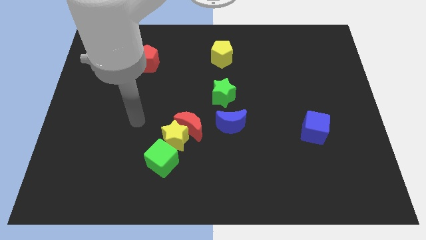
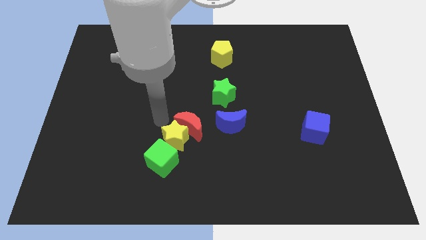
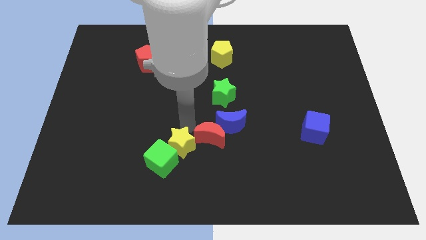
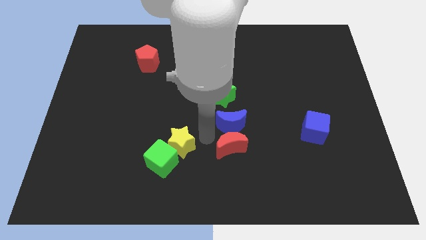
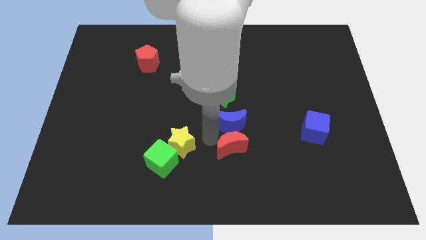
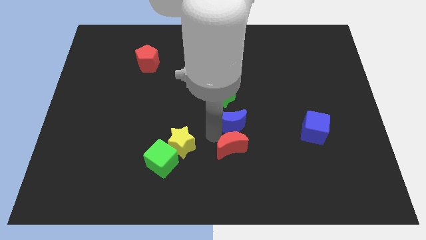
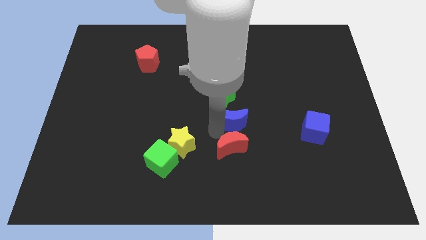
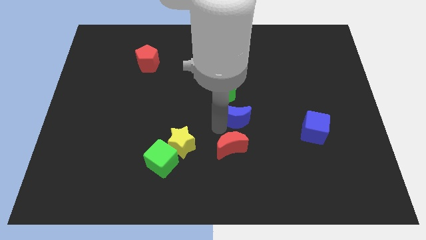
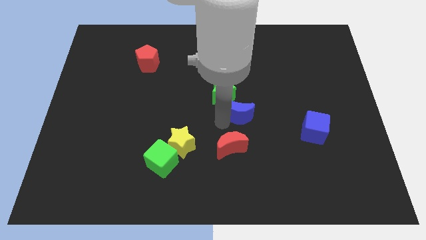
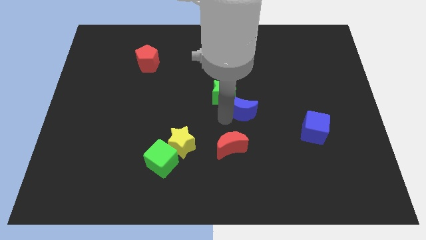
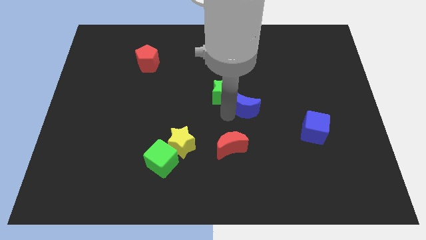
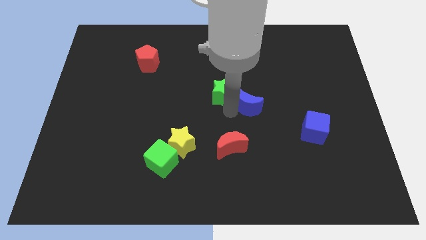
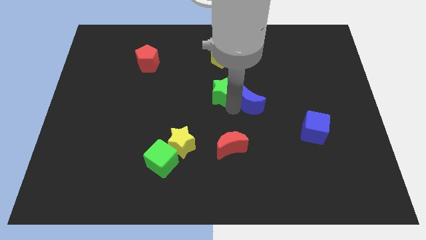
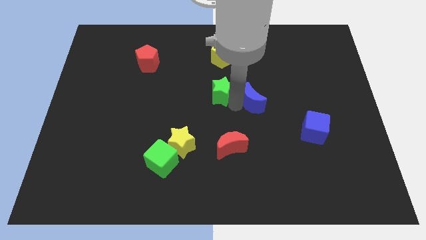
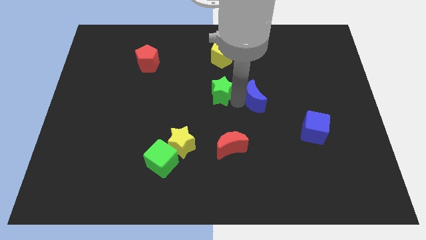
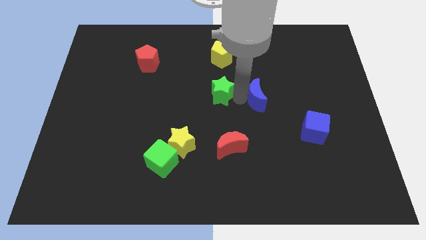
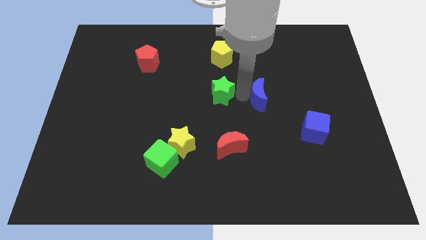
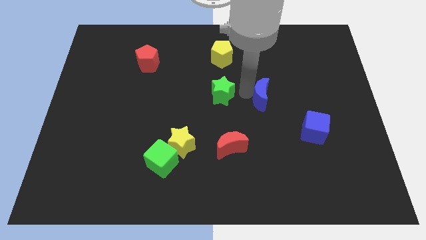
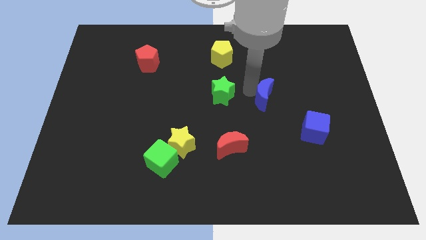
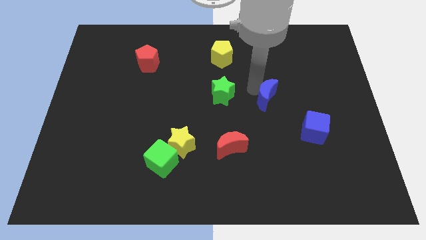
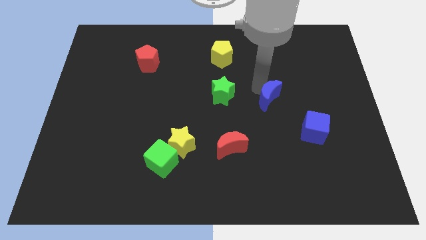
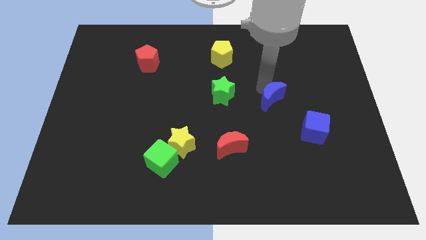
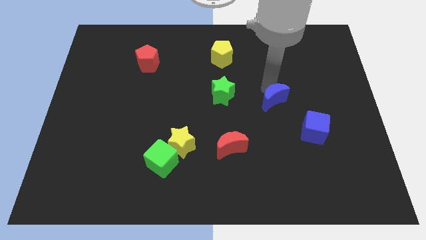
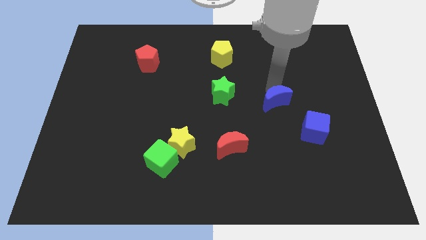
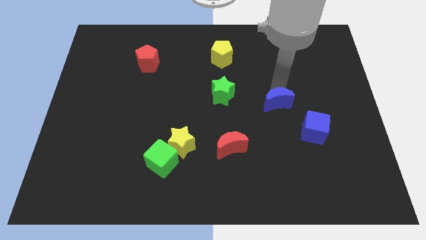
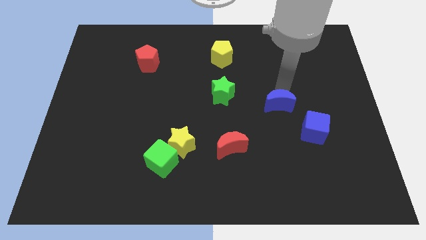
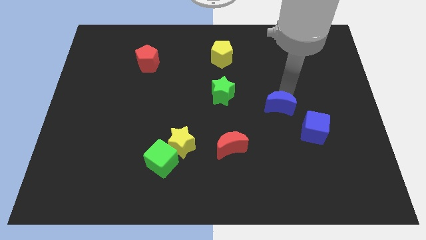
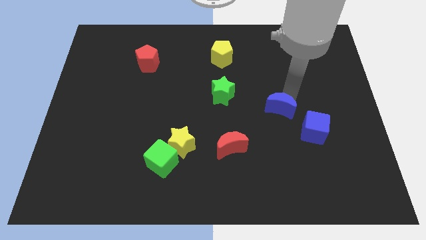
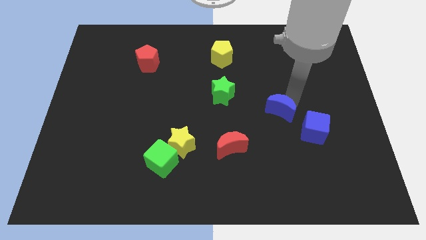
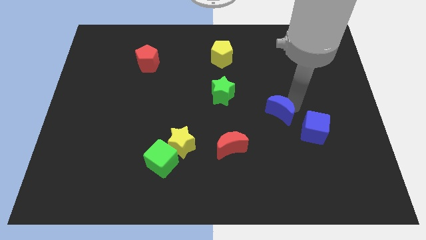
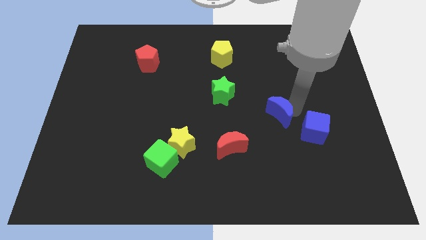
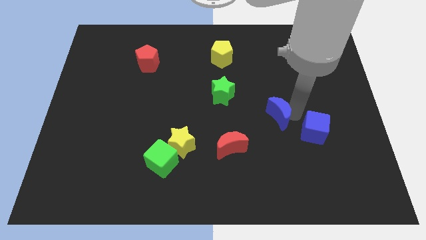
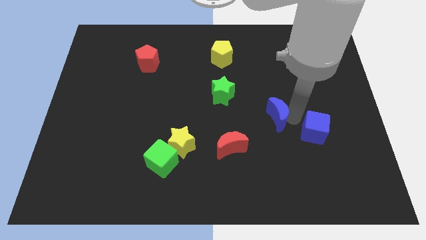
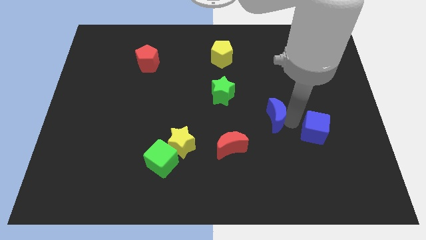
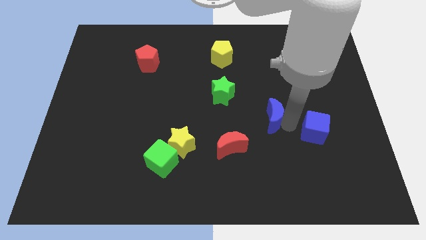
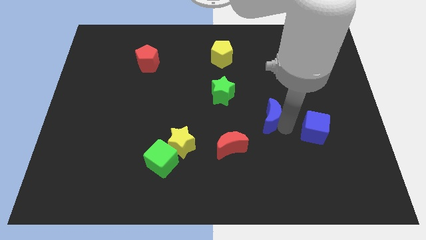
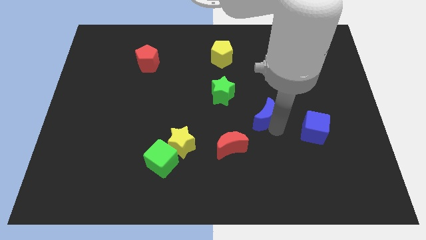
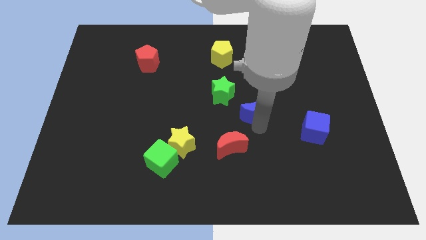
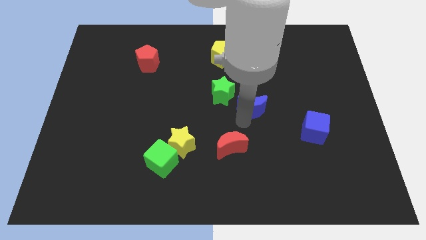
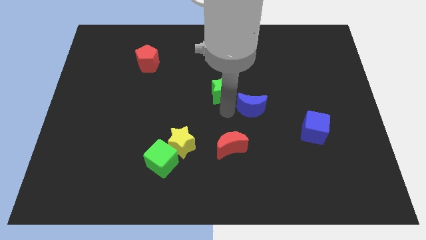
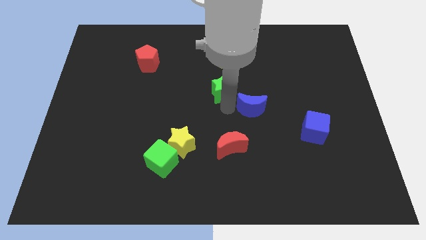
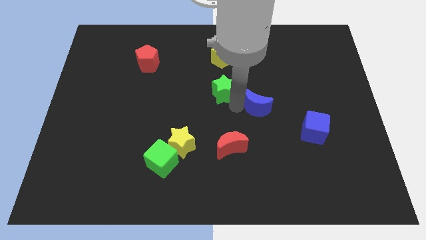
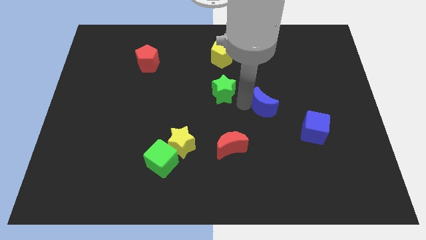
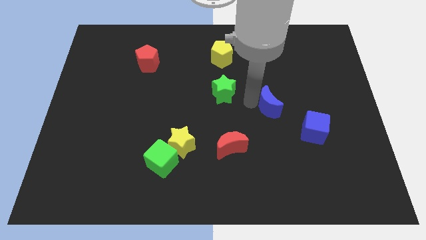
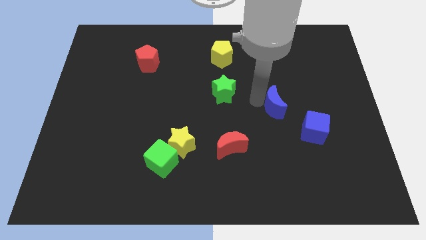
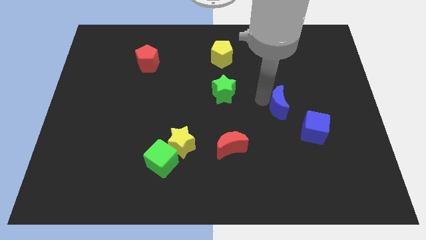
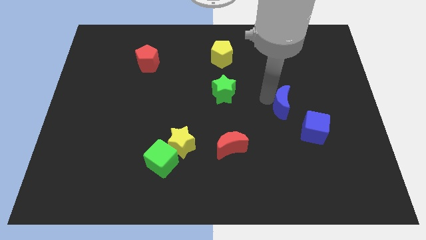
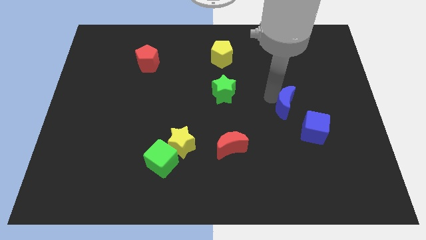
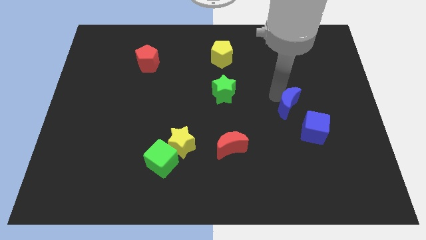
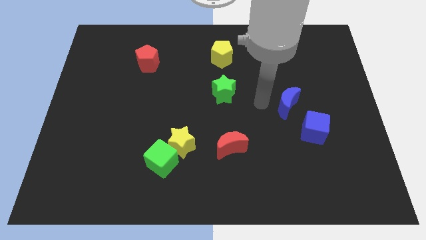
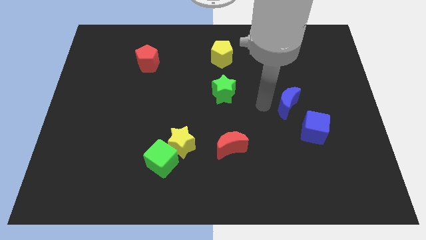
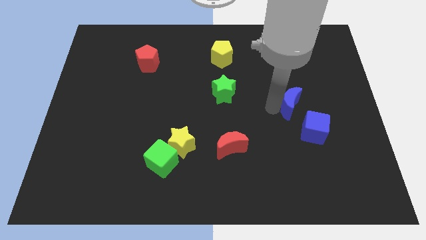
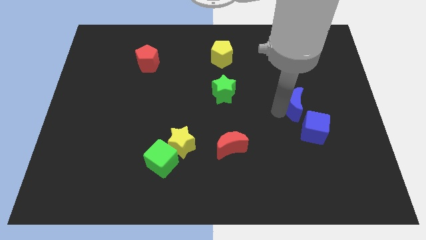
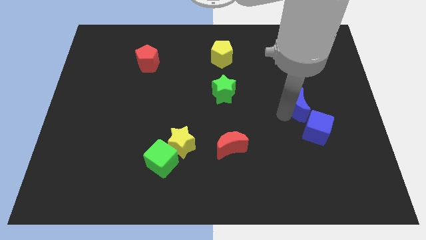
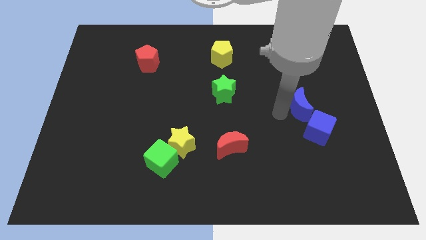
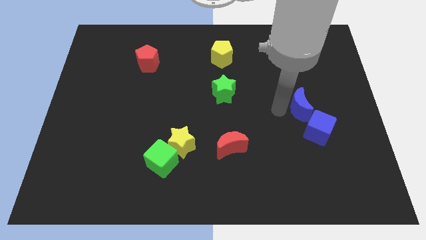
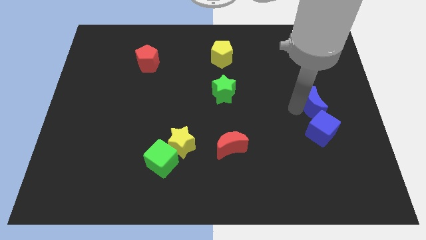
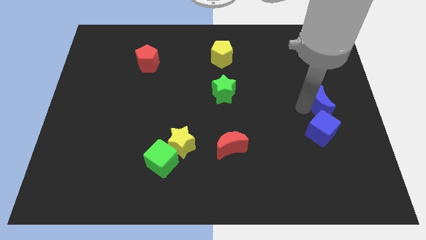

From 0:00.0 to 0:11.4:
put the blue moon to the center right
